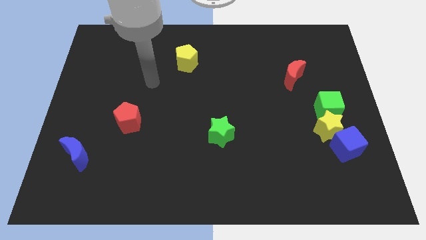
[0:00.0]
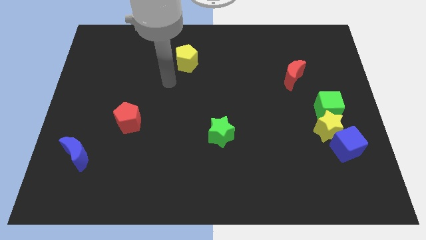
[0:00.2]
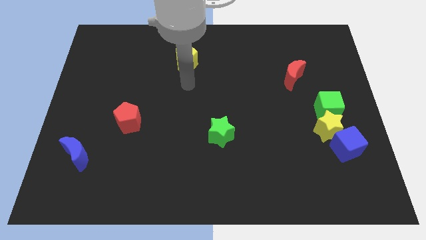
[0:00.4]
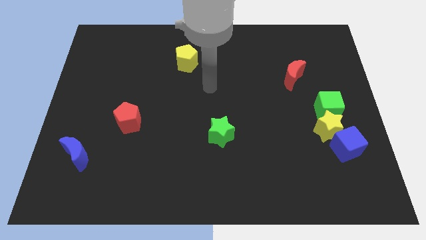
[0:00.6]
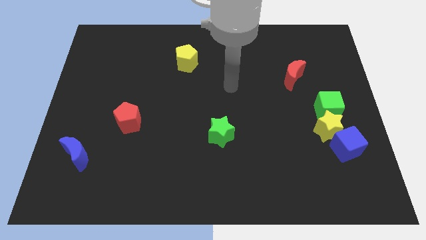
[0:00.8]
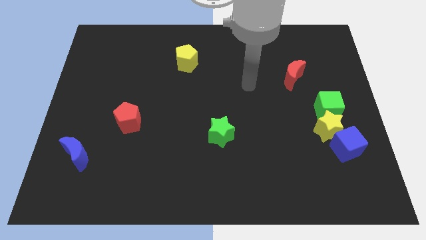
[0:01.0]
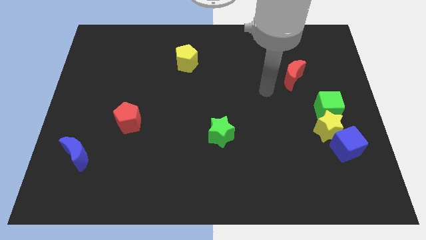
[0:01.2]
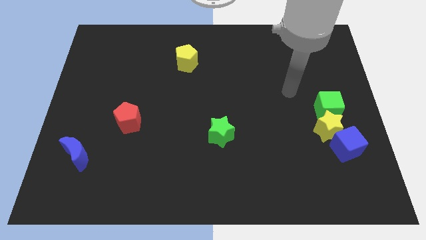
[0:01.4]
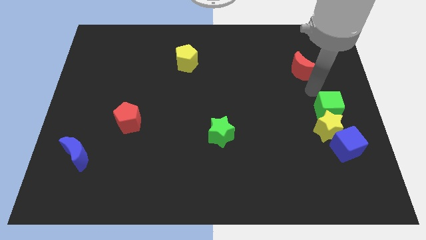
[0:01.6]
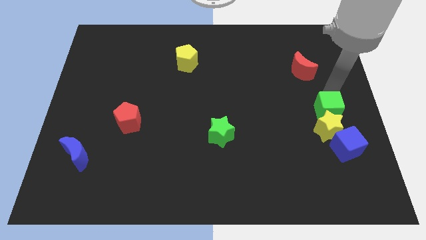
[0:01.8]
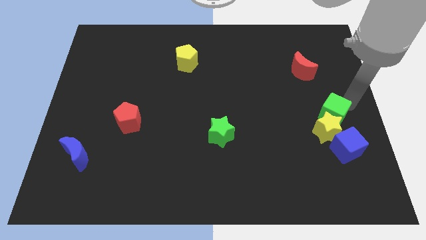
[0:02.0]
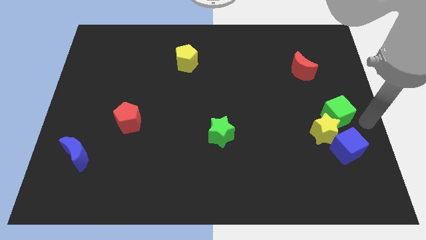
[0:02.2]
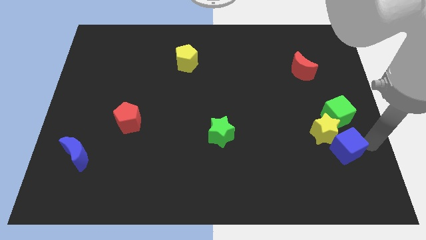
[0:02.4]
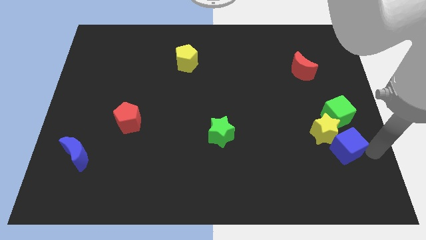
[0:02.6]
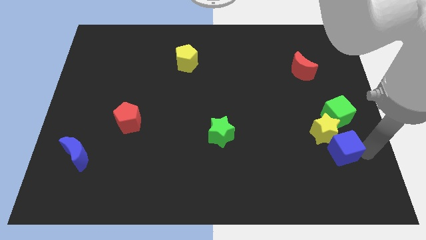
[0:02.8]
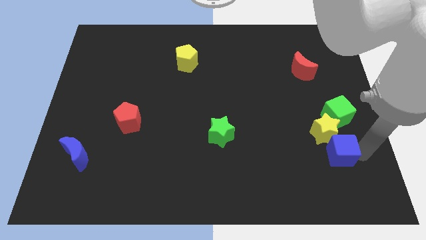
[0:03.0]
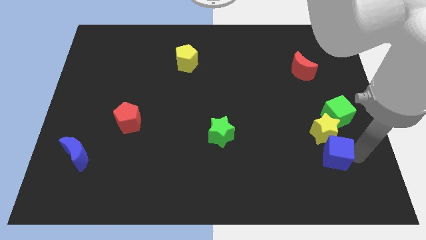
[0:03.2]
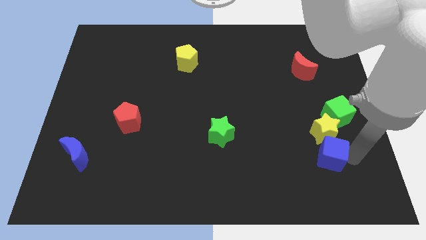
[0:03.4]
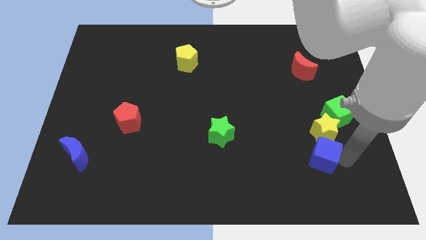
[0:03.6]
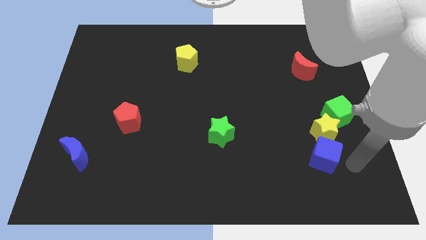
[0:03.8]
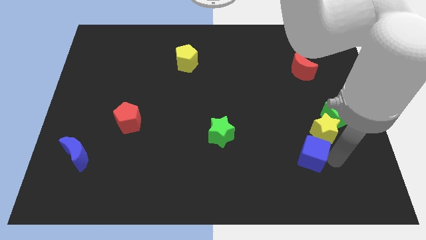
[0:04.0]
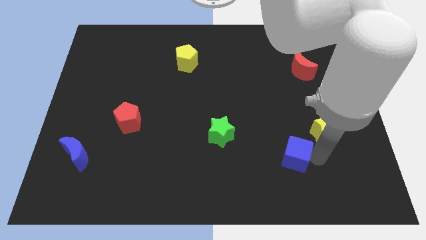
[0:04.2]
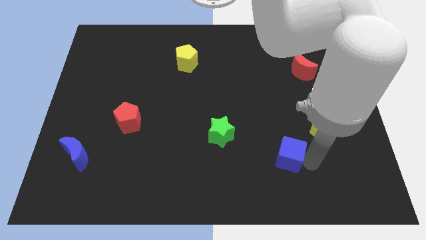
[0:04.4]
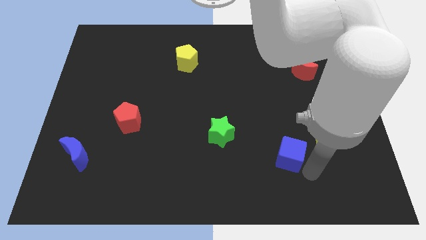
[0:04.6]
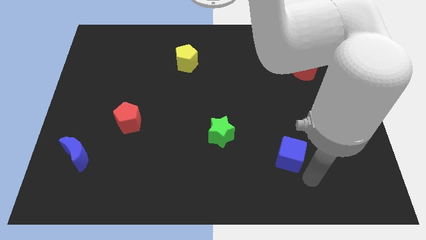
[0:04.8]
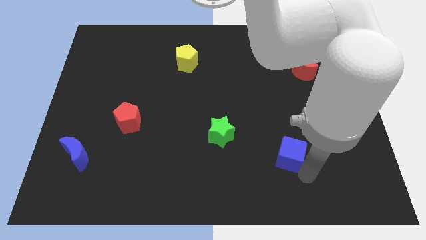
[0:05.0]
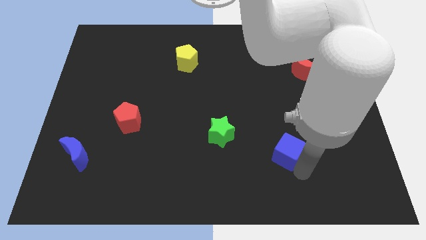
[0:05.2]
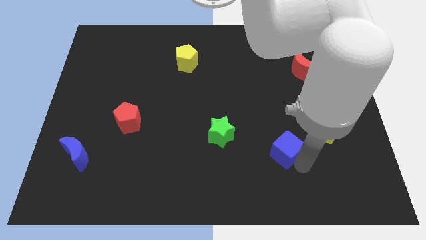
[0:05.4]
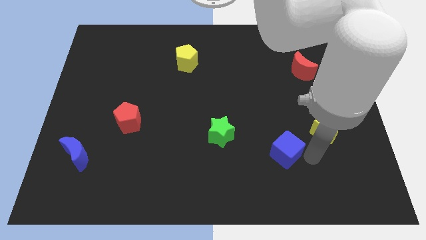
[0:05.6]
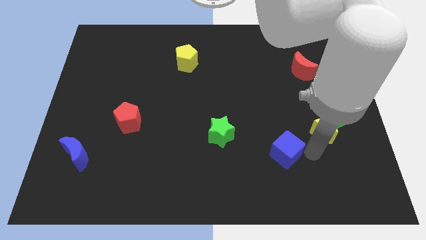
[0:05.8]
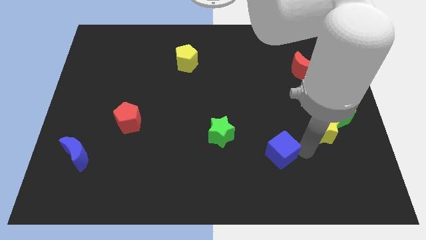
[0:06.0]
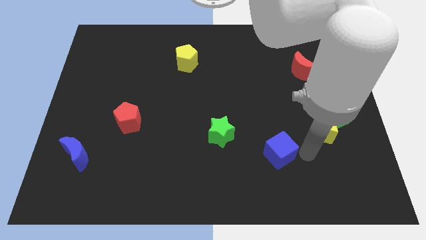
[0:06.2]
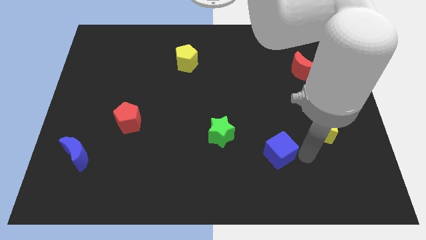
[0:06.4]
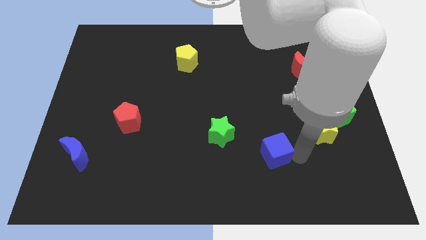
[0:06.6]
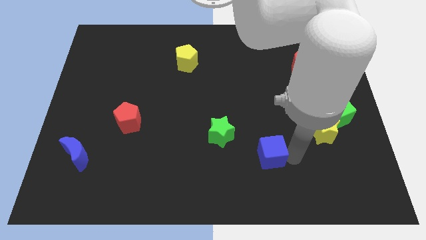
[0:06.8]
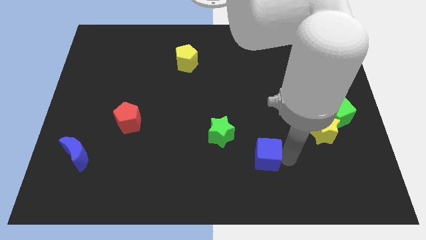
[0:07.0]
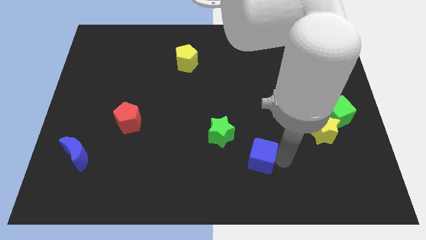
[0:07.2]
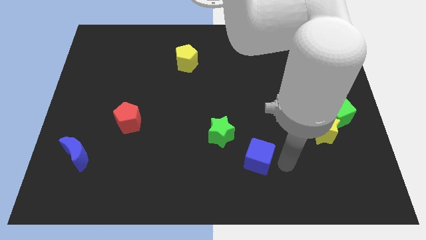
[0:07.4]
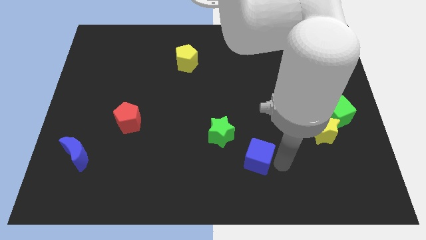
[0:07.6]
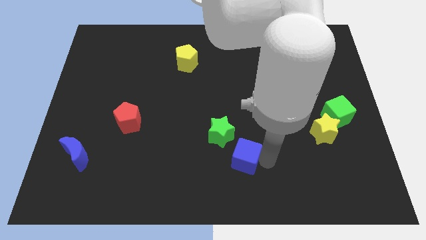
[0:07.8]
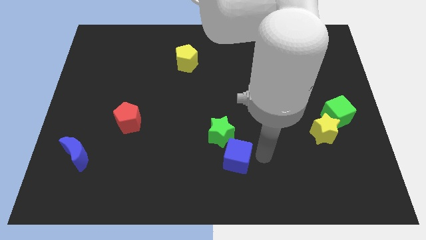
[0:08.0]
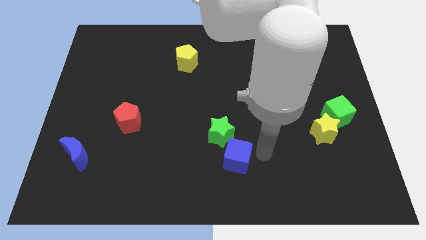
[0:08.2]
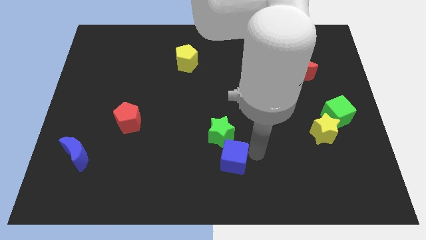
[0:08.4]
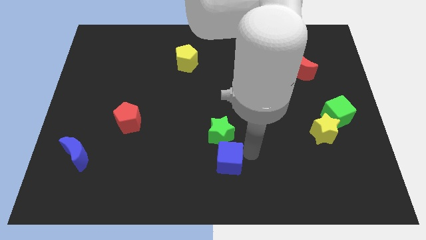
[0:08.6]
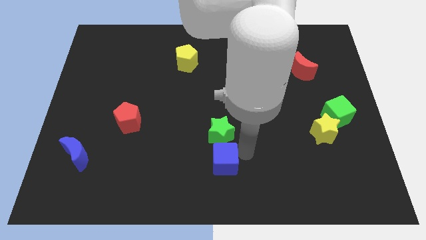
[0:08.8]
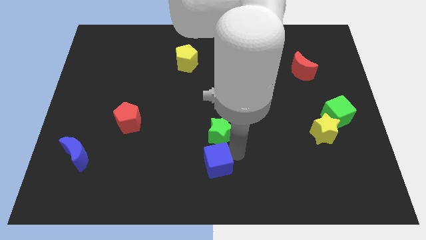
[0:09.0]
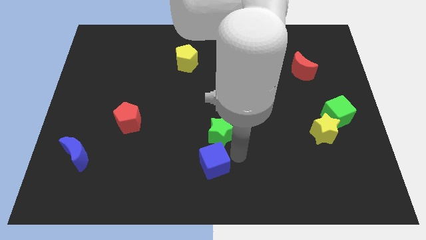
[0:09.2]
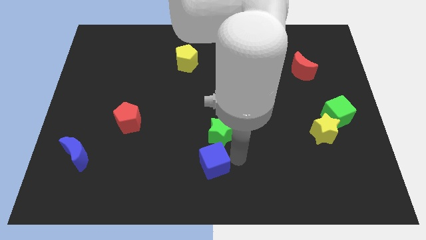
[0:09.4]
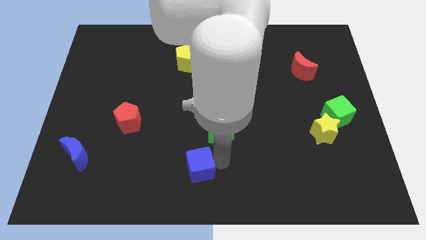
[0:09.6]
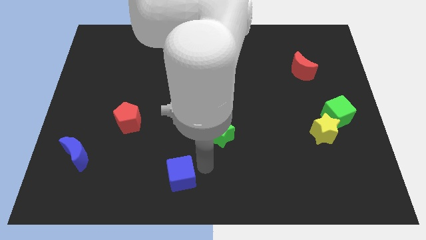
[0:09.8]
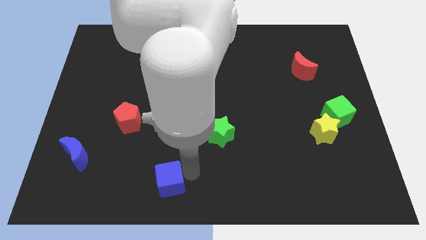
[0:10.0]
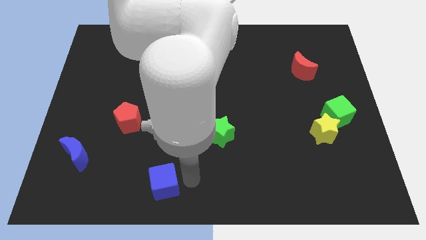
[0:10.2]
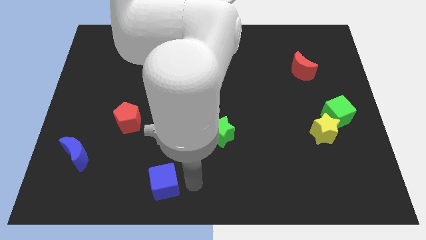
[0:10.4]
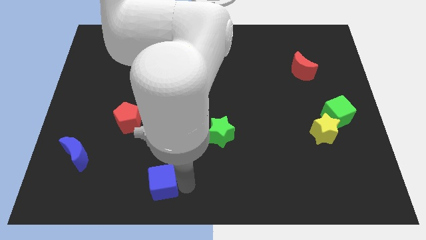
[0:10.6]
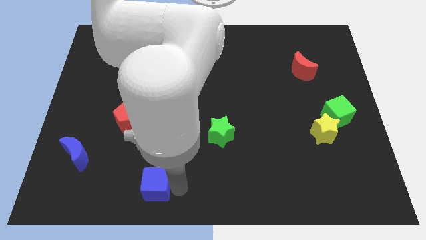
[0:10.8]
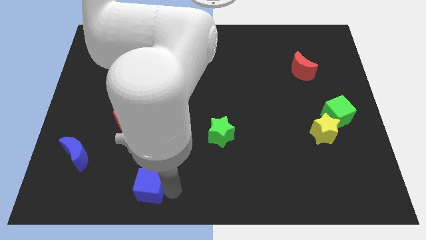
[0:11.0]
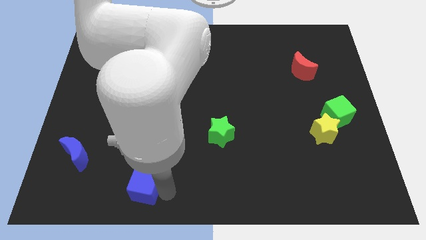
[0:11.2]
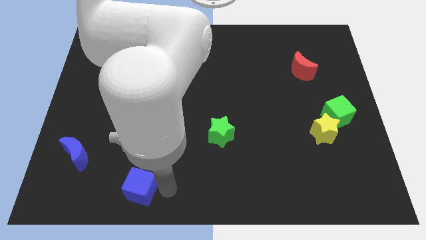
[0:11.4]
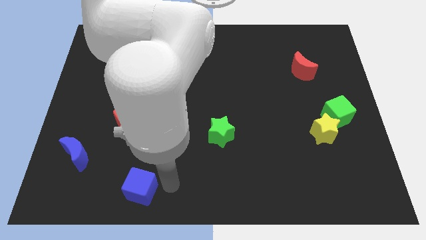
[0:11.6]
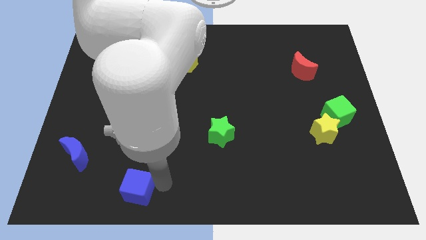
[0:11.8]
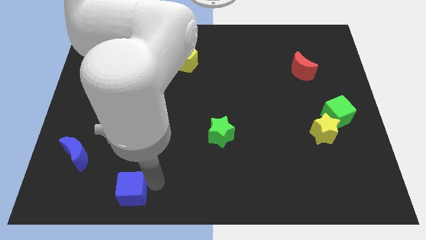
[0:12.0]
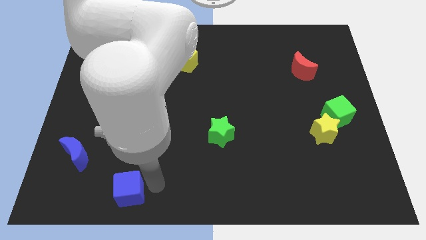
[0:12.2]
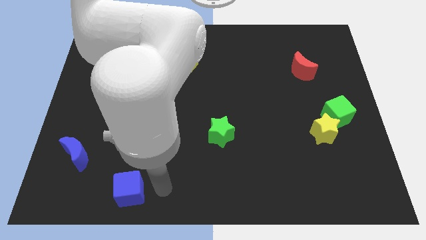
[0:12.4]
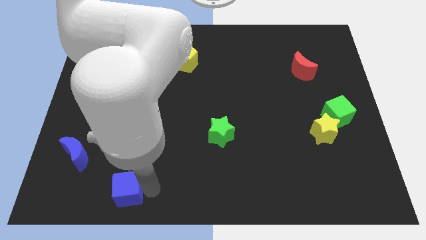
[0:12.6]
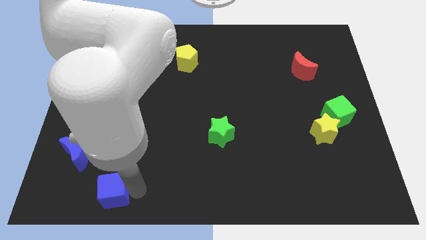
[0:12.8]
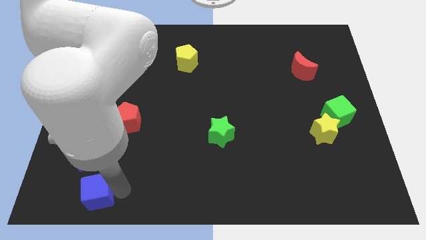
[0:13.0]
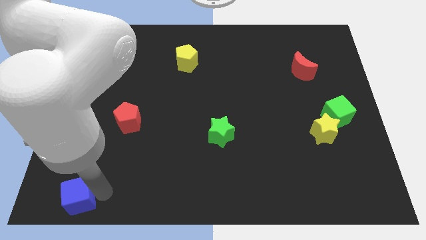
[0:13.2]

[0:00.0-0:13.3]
slide the blue cube to the lower left corner

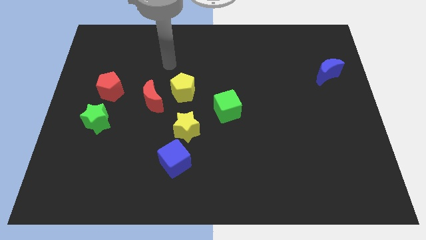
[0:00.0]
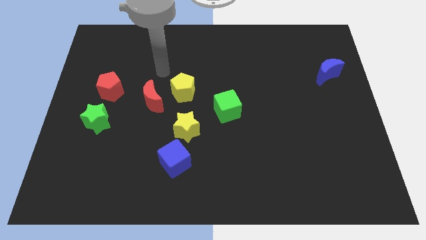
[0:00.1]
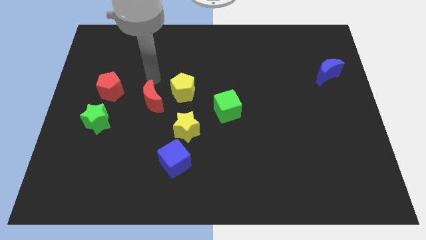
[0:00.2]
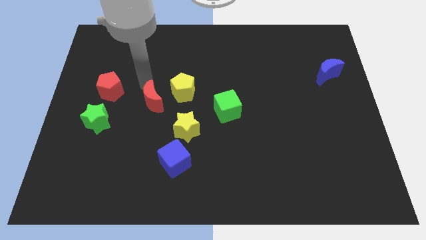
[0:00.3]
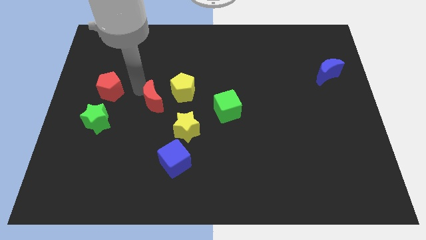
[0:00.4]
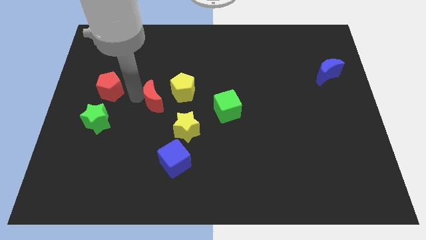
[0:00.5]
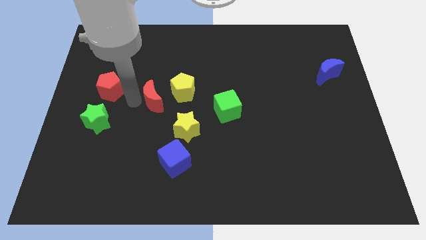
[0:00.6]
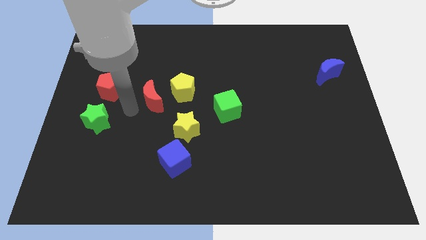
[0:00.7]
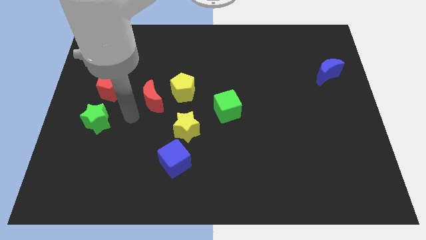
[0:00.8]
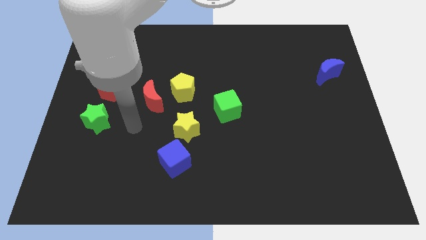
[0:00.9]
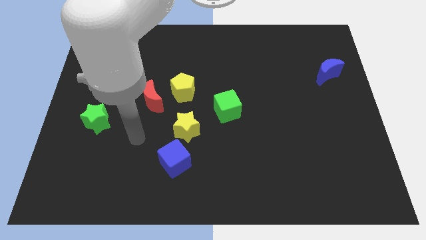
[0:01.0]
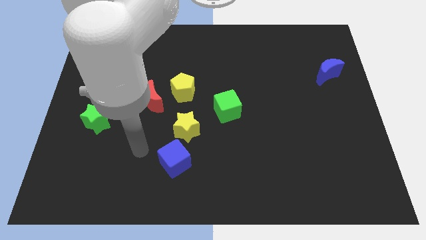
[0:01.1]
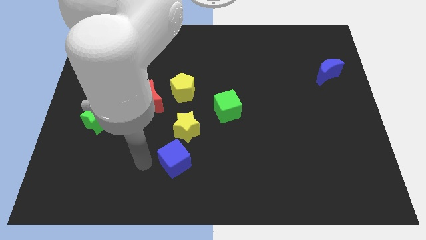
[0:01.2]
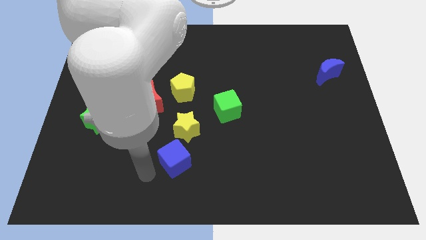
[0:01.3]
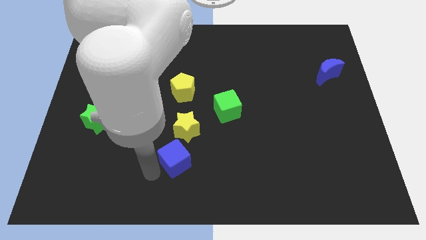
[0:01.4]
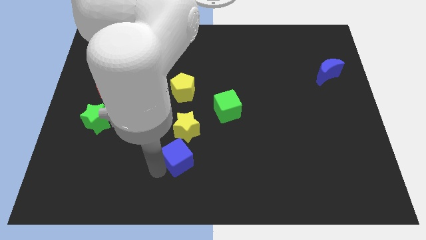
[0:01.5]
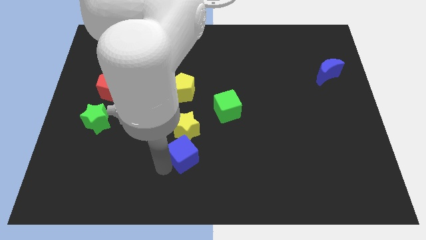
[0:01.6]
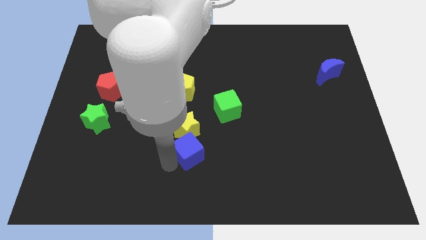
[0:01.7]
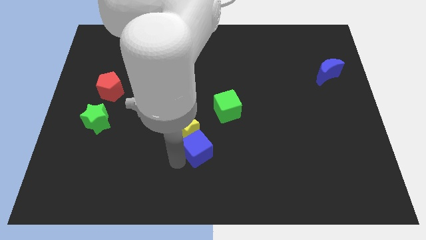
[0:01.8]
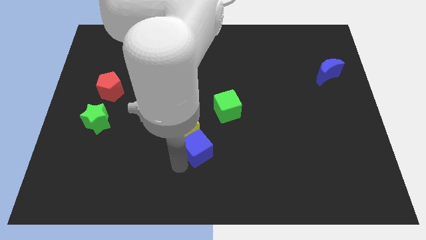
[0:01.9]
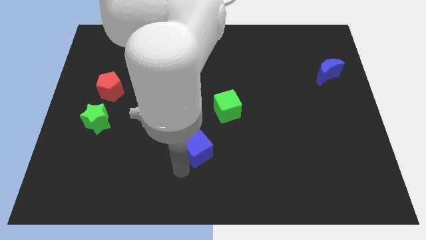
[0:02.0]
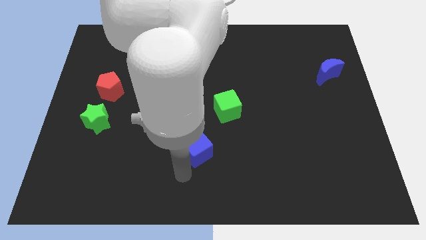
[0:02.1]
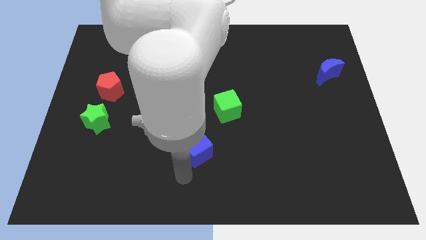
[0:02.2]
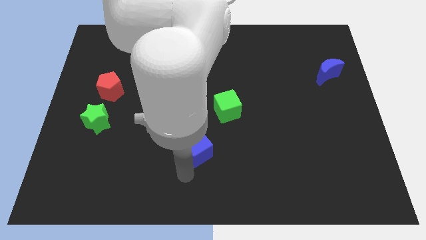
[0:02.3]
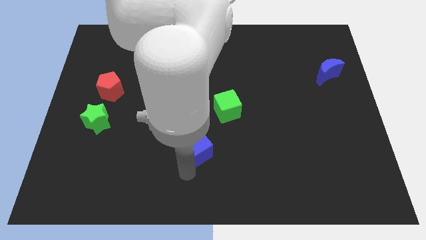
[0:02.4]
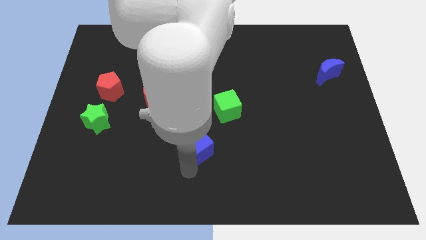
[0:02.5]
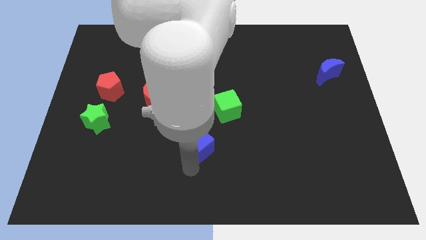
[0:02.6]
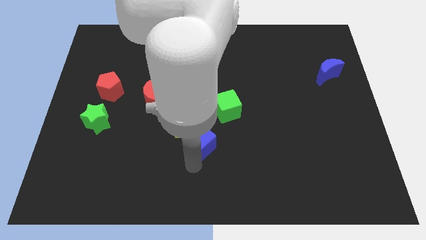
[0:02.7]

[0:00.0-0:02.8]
put the blue cube to the middle of the board
